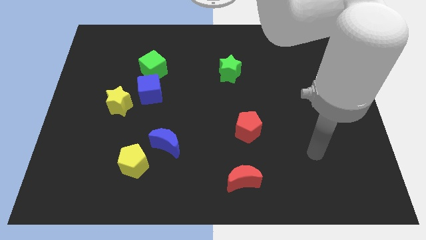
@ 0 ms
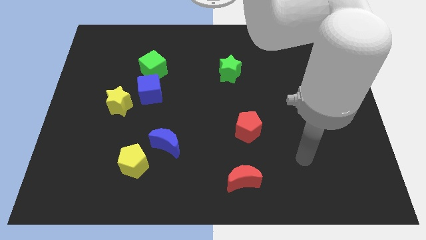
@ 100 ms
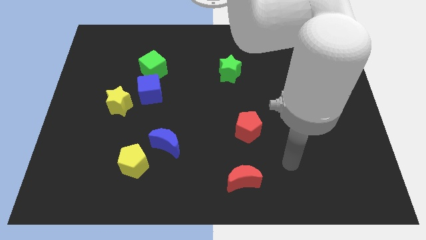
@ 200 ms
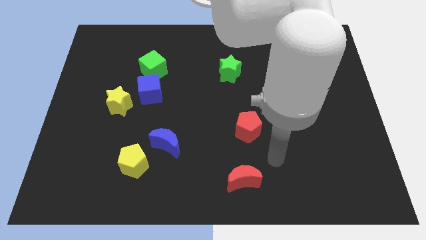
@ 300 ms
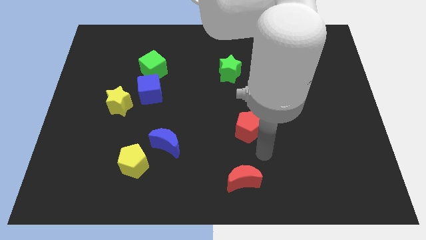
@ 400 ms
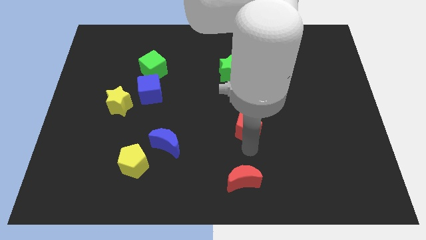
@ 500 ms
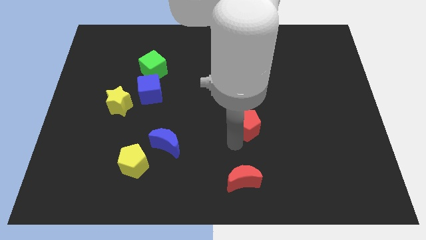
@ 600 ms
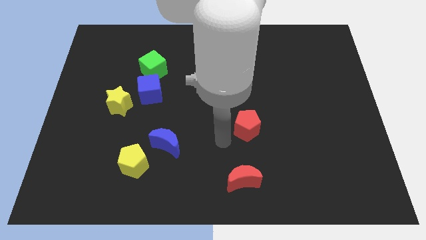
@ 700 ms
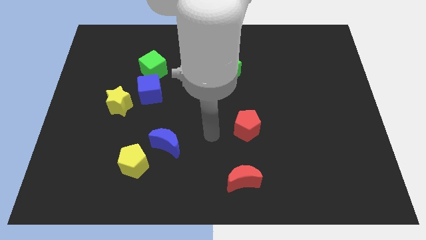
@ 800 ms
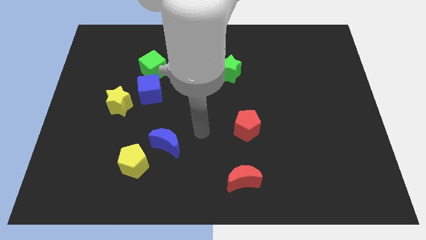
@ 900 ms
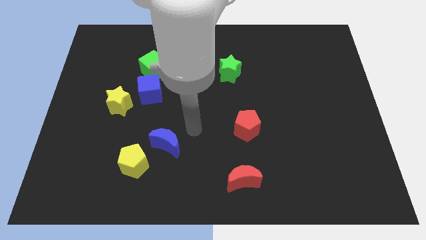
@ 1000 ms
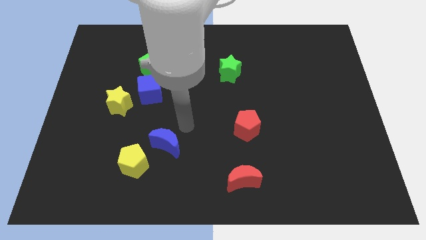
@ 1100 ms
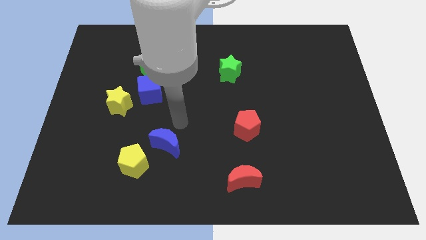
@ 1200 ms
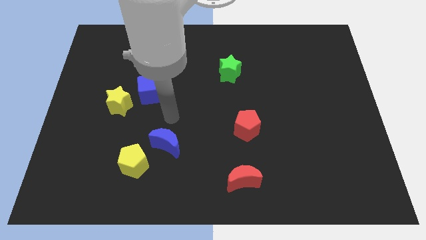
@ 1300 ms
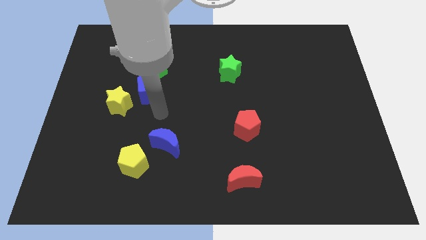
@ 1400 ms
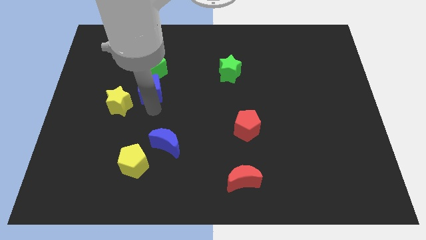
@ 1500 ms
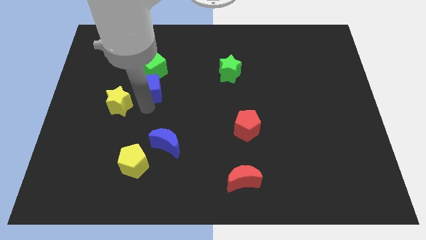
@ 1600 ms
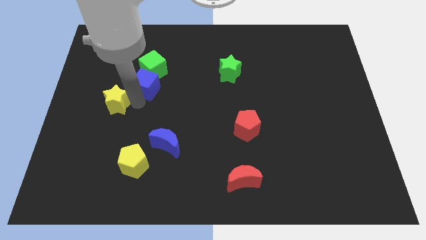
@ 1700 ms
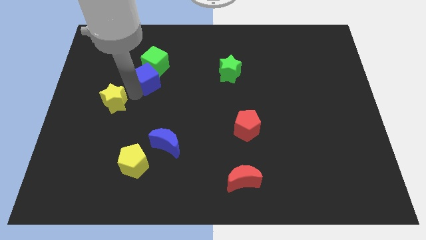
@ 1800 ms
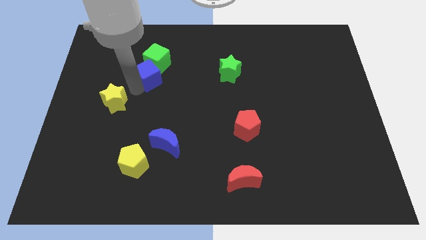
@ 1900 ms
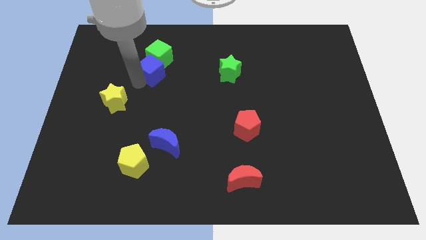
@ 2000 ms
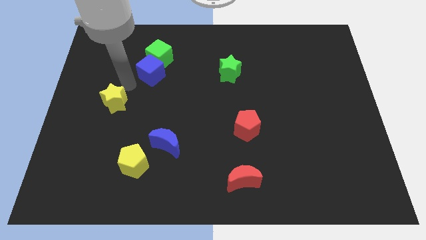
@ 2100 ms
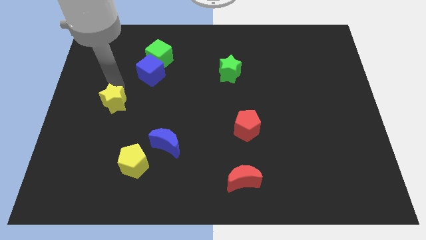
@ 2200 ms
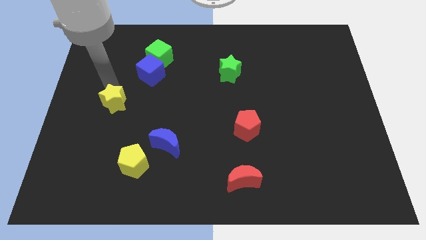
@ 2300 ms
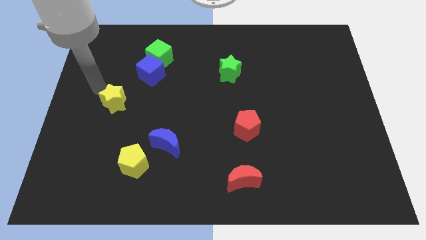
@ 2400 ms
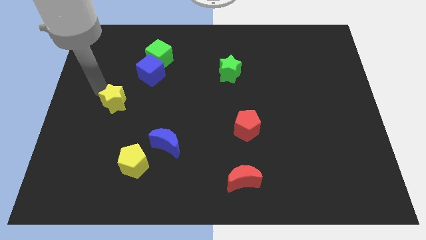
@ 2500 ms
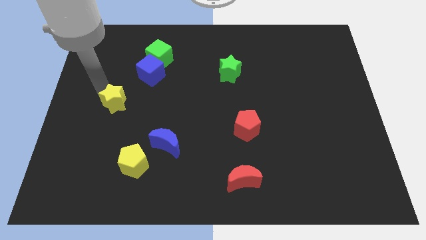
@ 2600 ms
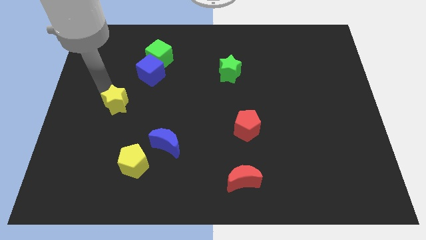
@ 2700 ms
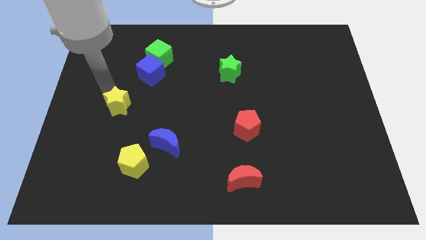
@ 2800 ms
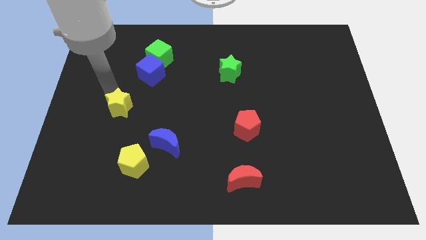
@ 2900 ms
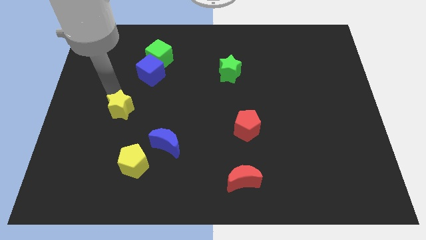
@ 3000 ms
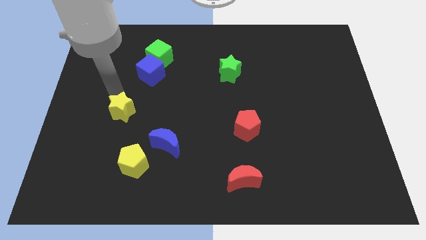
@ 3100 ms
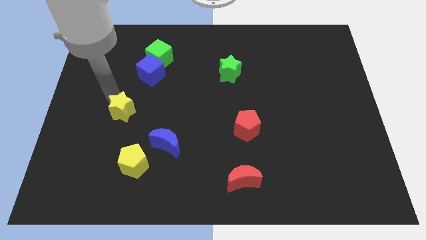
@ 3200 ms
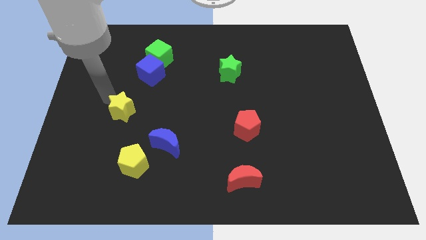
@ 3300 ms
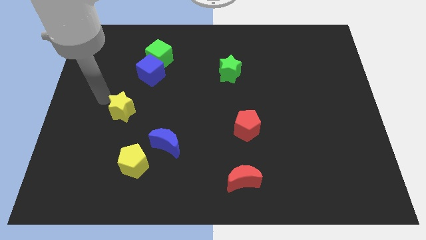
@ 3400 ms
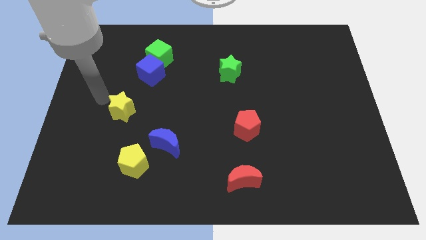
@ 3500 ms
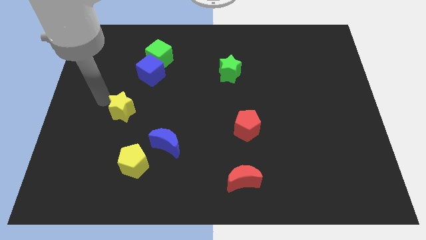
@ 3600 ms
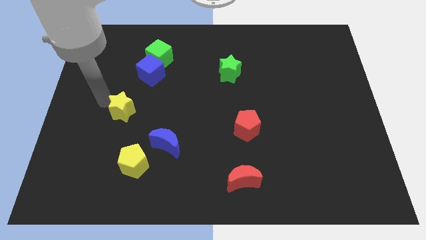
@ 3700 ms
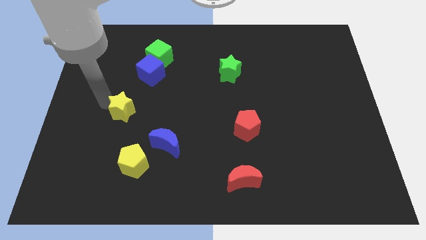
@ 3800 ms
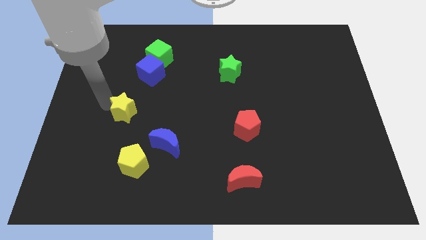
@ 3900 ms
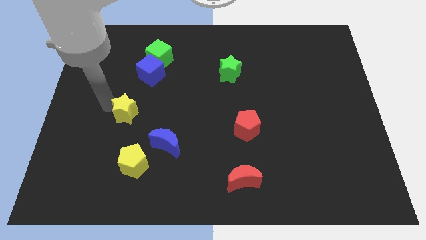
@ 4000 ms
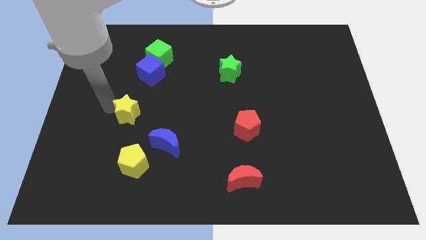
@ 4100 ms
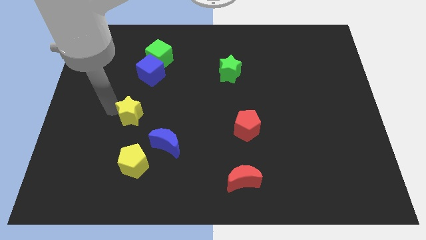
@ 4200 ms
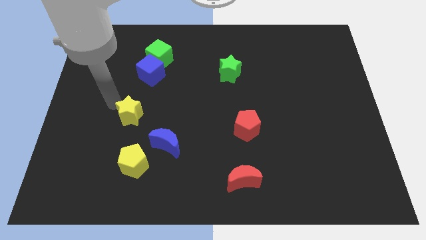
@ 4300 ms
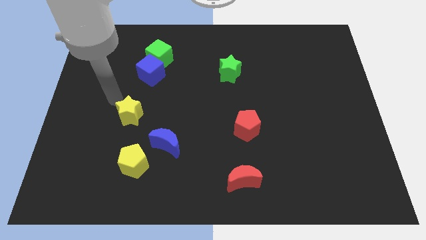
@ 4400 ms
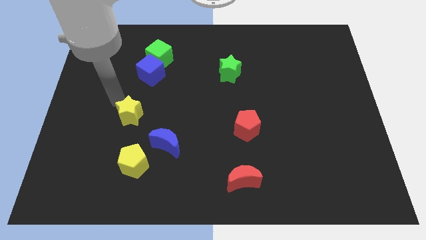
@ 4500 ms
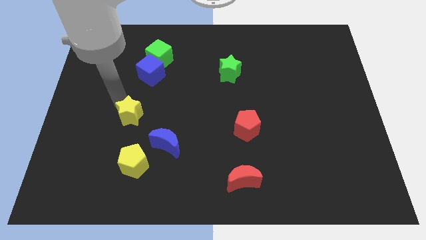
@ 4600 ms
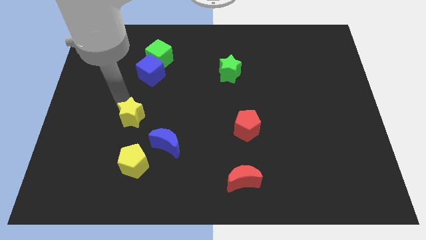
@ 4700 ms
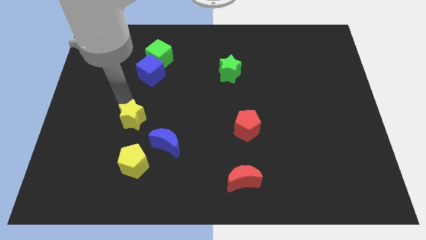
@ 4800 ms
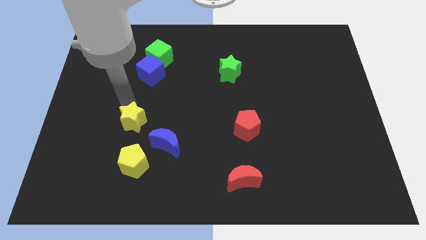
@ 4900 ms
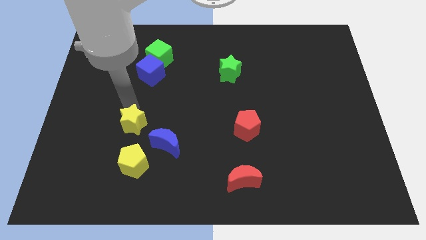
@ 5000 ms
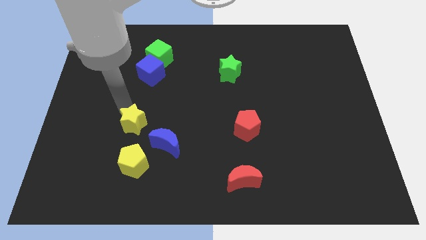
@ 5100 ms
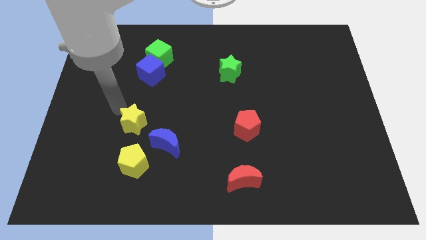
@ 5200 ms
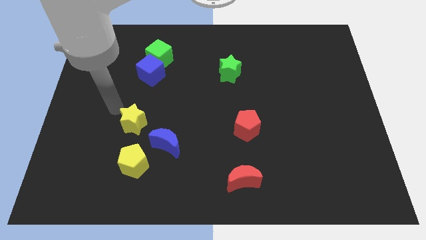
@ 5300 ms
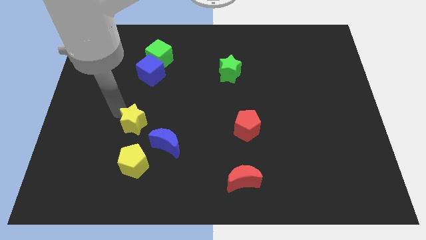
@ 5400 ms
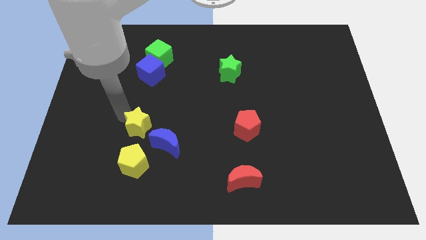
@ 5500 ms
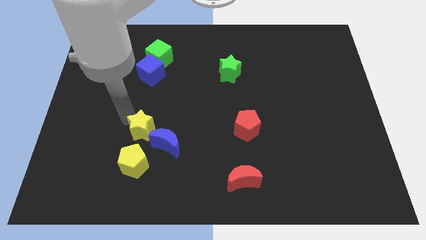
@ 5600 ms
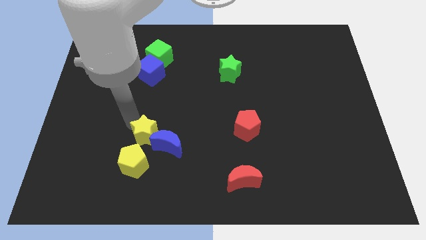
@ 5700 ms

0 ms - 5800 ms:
slide the yellow star next to the blue moon

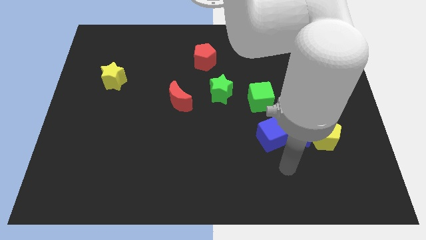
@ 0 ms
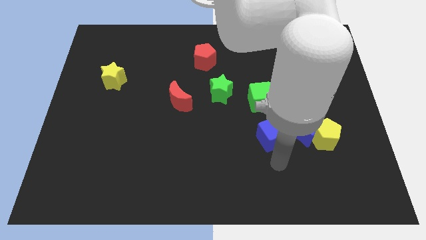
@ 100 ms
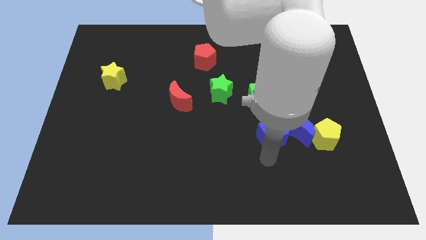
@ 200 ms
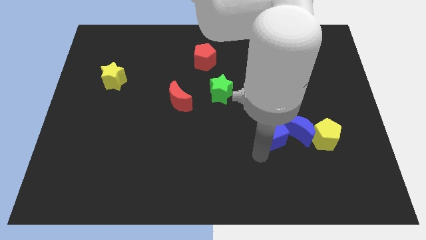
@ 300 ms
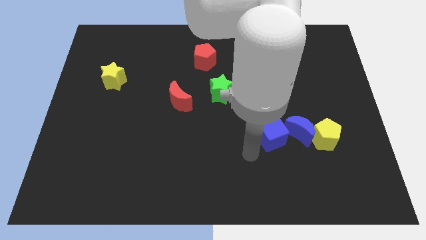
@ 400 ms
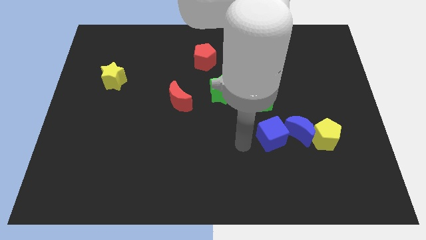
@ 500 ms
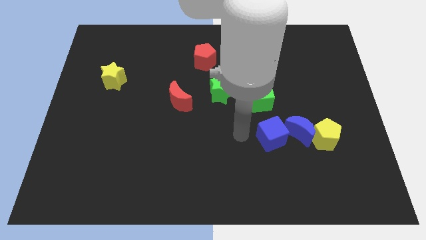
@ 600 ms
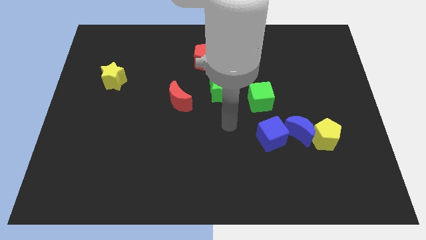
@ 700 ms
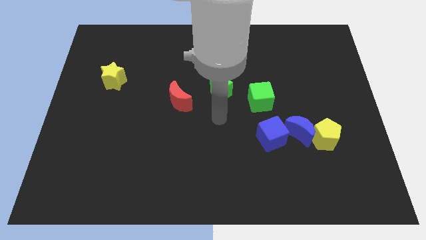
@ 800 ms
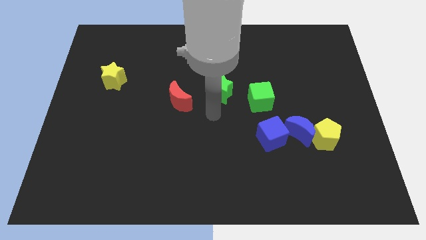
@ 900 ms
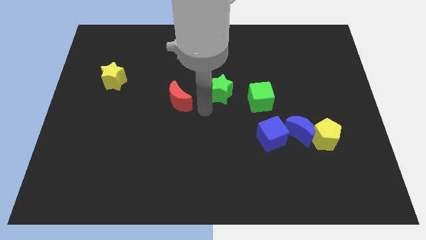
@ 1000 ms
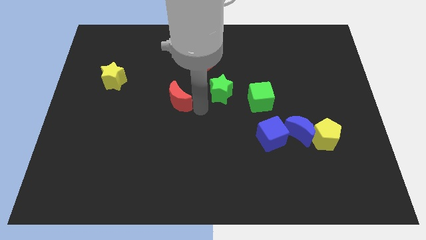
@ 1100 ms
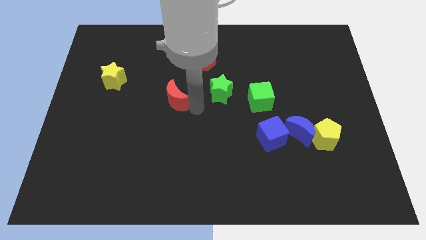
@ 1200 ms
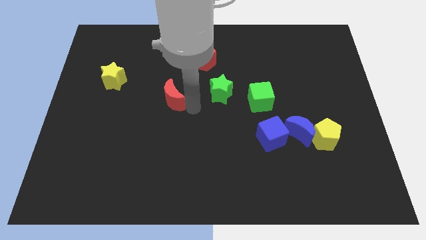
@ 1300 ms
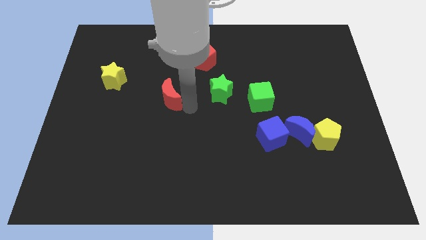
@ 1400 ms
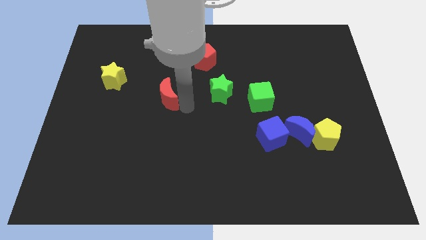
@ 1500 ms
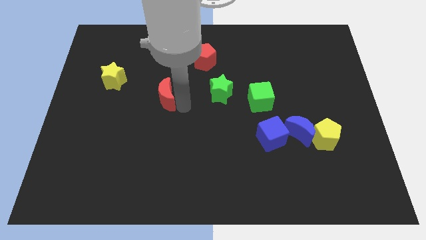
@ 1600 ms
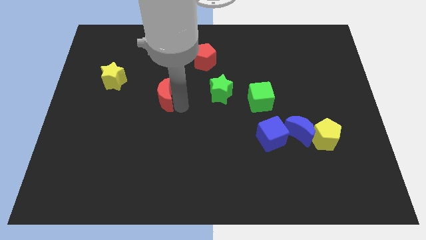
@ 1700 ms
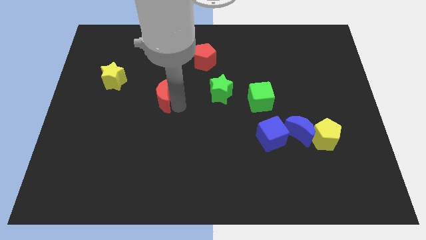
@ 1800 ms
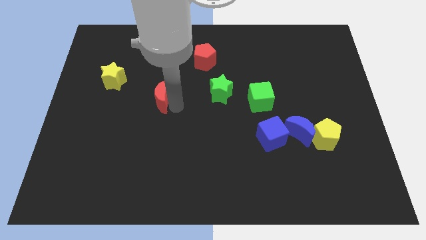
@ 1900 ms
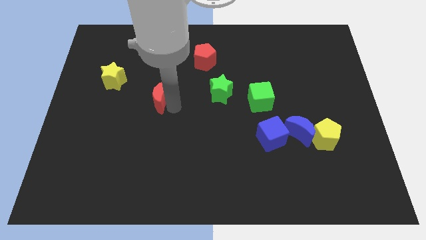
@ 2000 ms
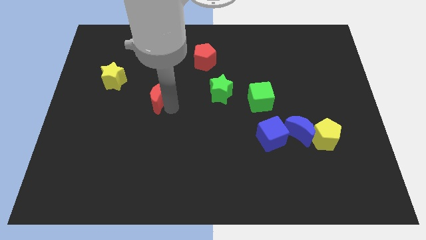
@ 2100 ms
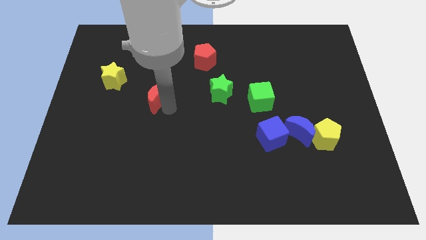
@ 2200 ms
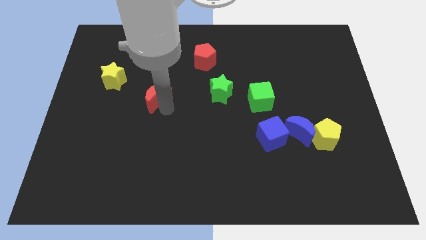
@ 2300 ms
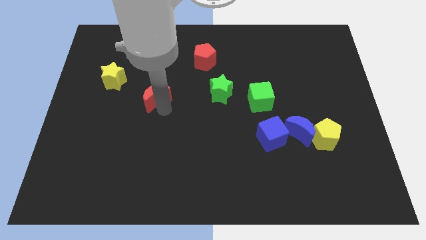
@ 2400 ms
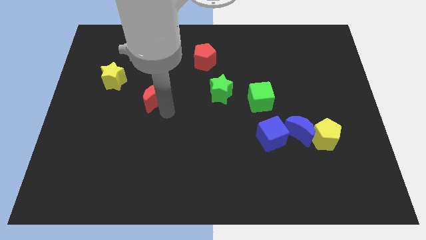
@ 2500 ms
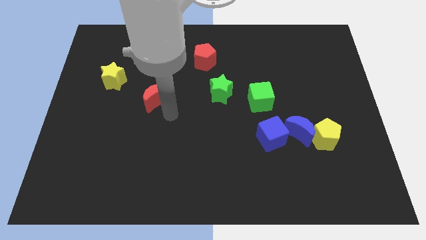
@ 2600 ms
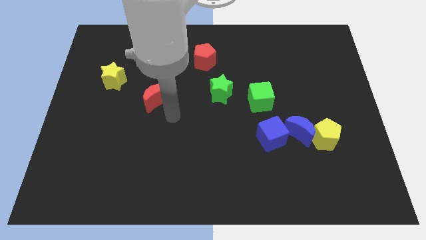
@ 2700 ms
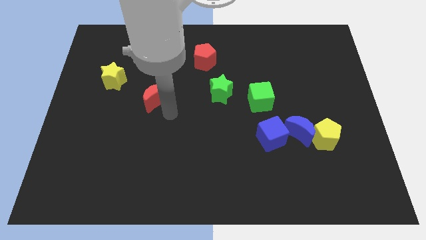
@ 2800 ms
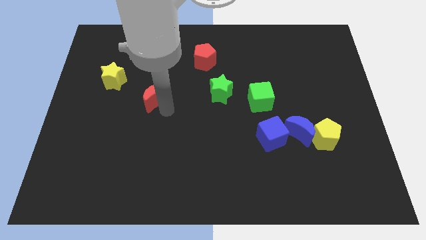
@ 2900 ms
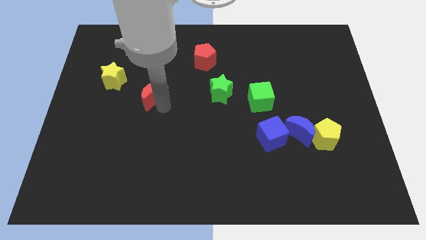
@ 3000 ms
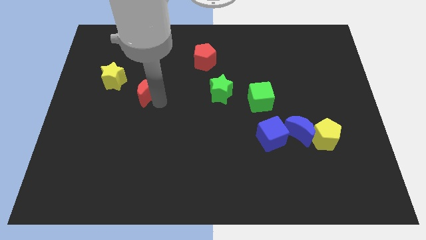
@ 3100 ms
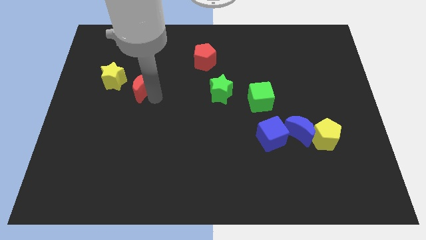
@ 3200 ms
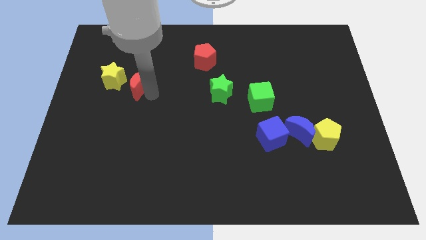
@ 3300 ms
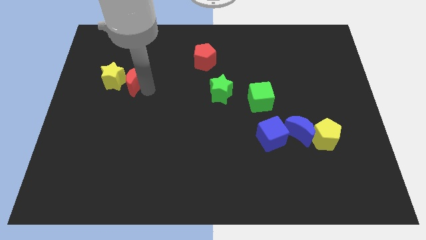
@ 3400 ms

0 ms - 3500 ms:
put the red moon next to the yellow star
